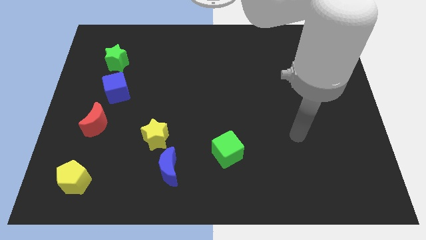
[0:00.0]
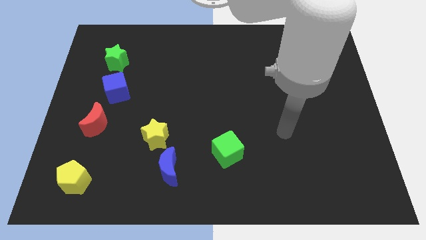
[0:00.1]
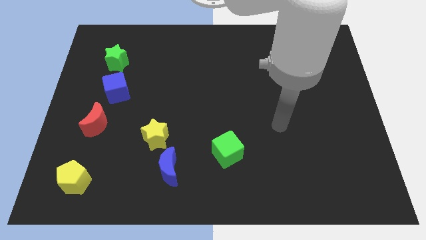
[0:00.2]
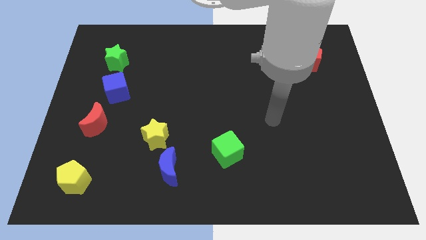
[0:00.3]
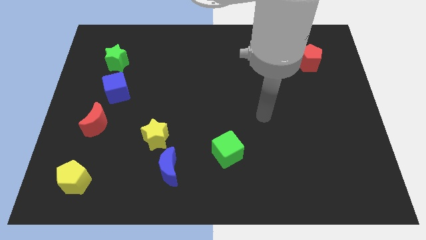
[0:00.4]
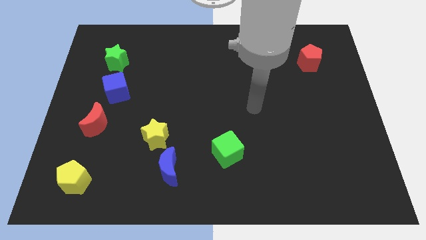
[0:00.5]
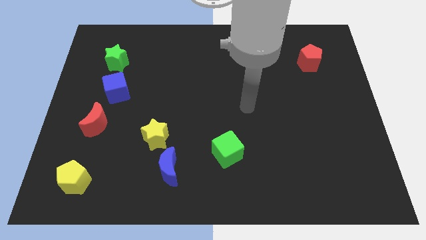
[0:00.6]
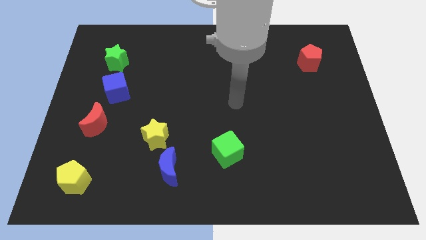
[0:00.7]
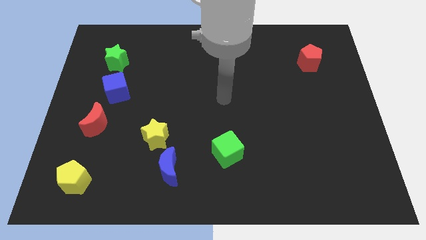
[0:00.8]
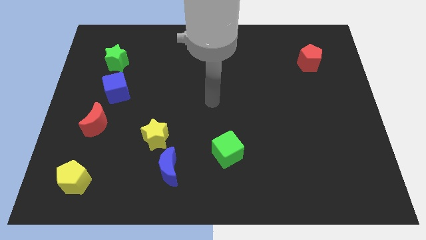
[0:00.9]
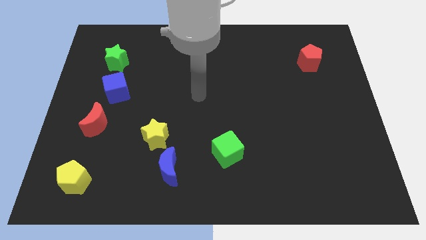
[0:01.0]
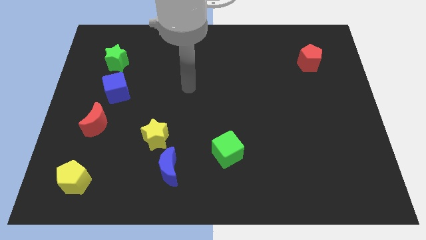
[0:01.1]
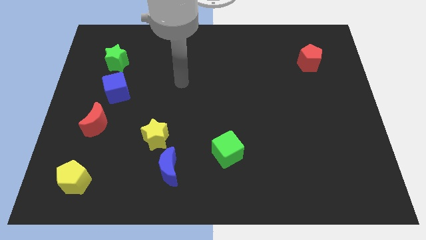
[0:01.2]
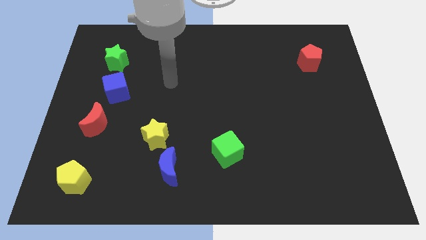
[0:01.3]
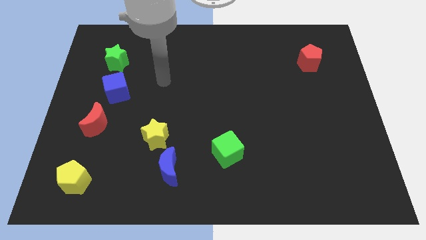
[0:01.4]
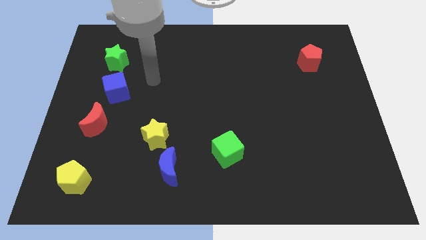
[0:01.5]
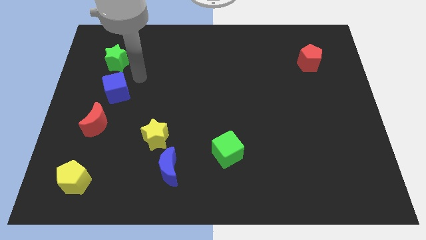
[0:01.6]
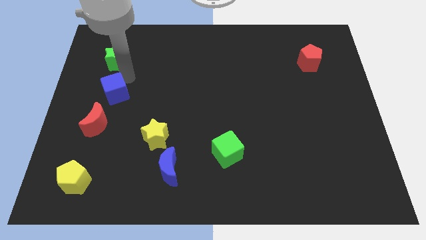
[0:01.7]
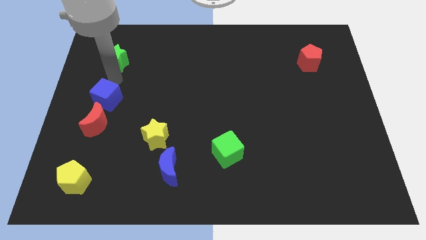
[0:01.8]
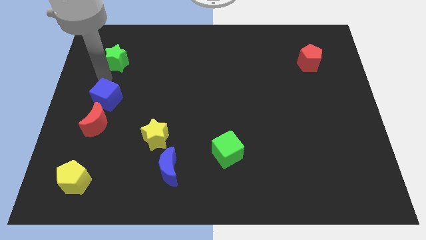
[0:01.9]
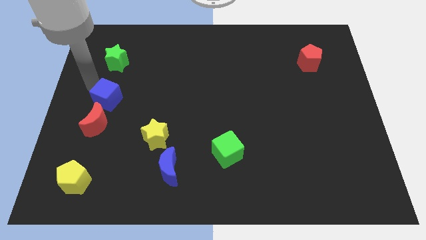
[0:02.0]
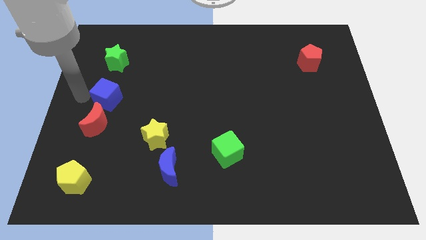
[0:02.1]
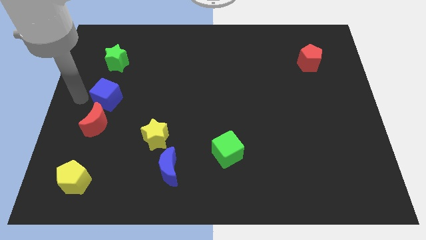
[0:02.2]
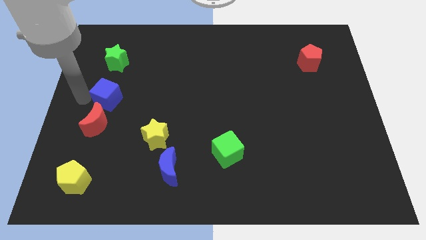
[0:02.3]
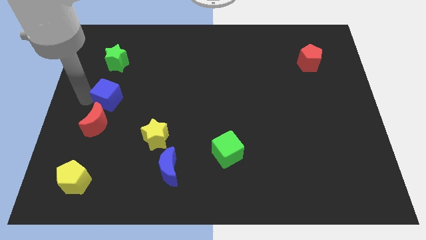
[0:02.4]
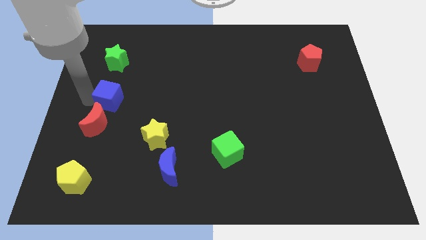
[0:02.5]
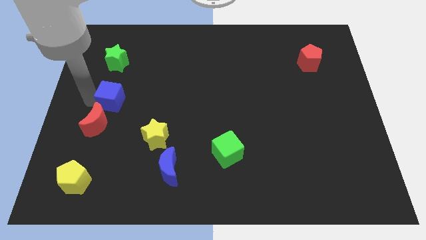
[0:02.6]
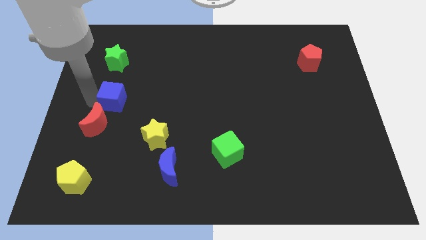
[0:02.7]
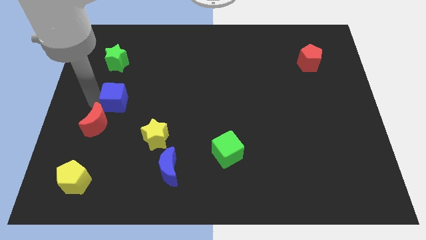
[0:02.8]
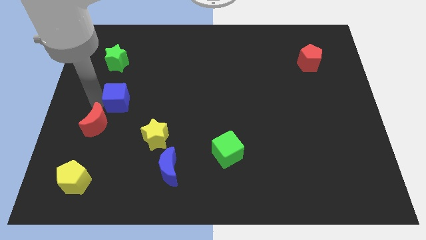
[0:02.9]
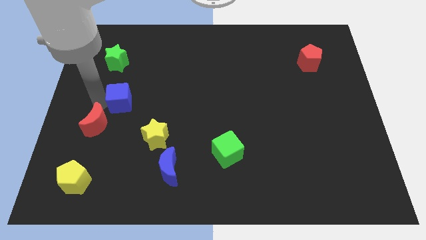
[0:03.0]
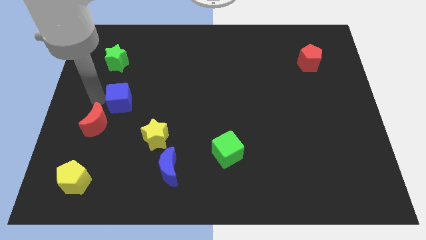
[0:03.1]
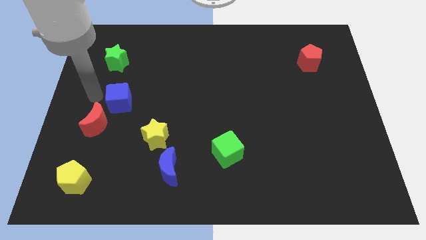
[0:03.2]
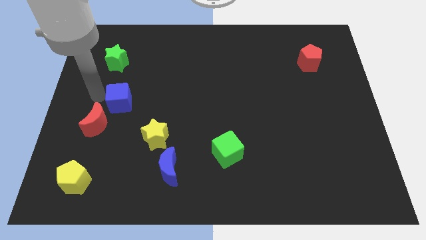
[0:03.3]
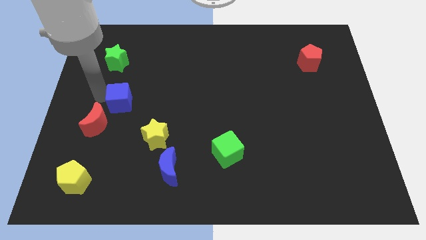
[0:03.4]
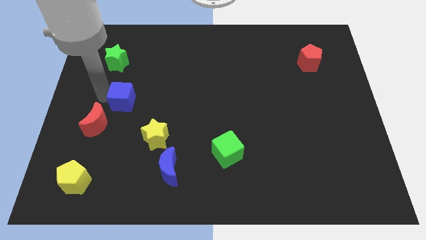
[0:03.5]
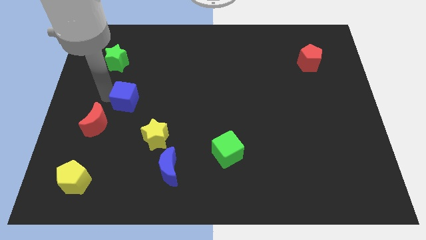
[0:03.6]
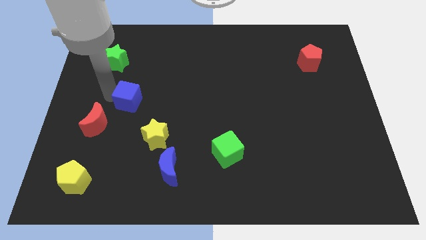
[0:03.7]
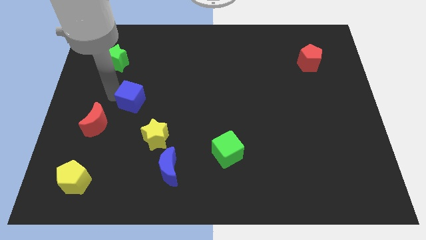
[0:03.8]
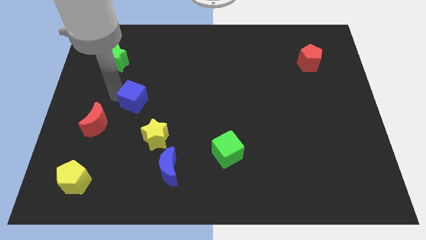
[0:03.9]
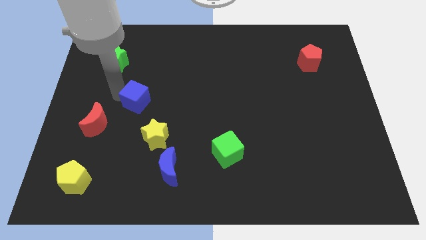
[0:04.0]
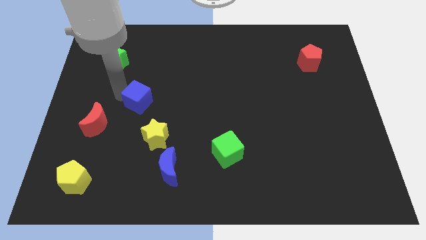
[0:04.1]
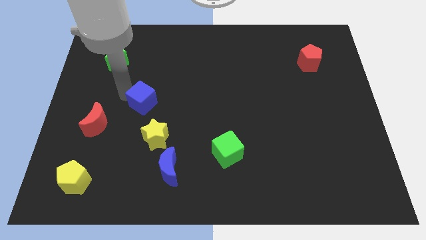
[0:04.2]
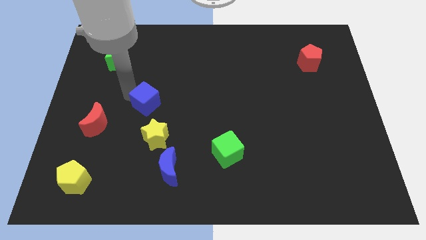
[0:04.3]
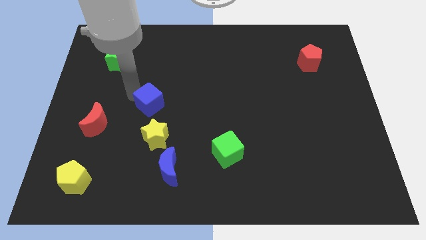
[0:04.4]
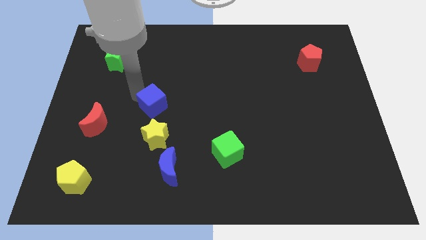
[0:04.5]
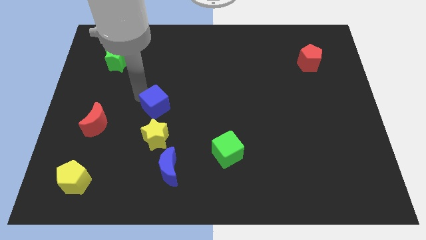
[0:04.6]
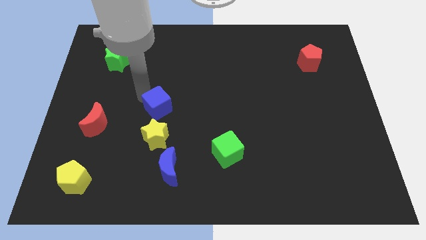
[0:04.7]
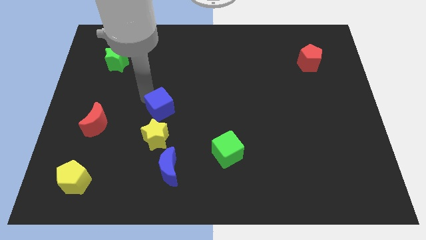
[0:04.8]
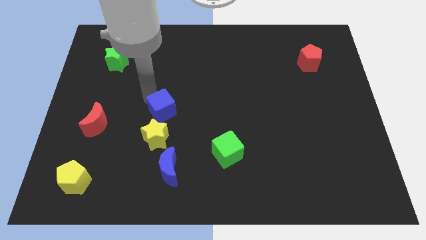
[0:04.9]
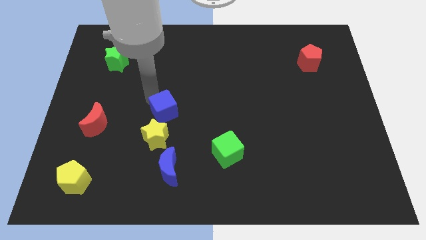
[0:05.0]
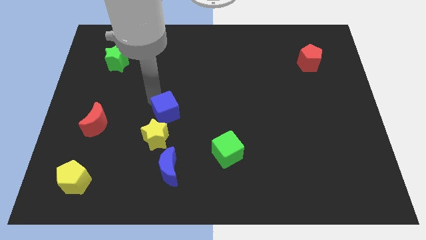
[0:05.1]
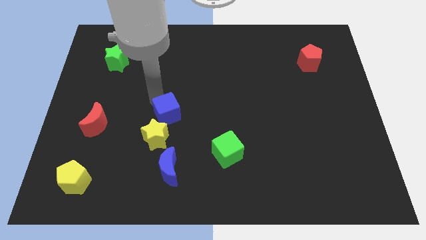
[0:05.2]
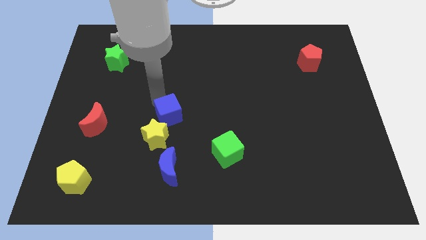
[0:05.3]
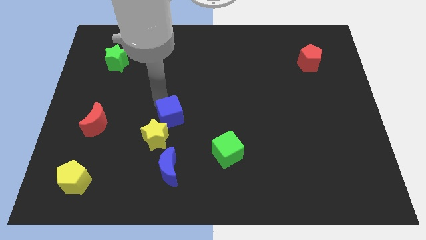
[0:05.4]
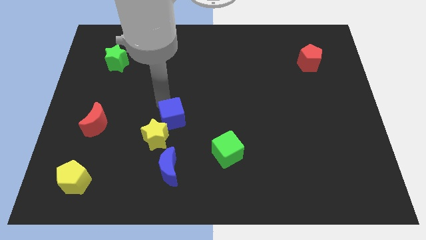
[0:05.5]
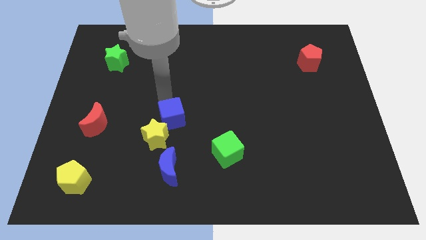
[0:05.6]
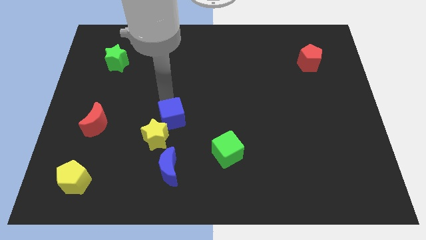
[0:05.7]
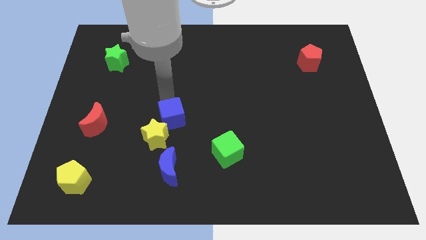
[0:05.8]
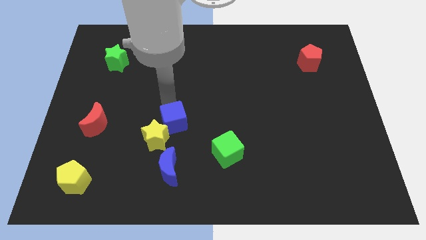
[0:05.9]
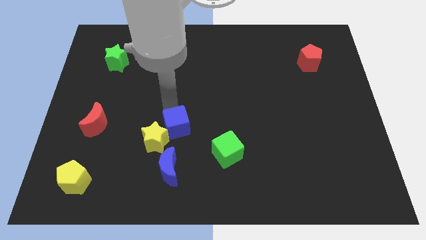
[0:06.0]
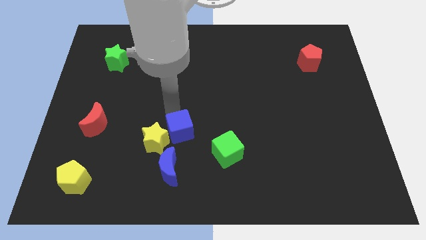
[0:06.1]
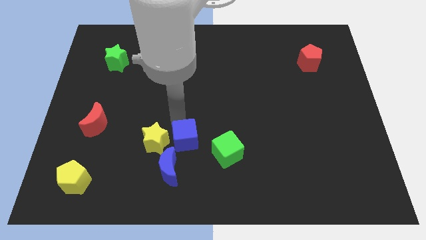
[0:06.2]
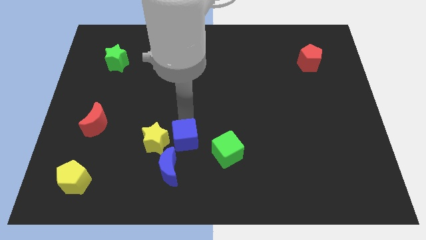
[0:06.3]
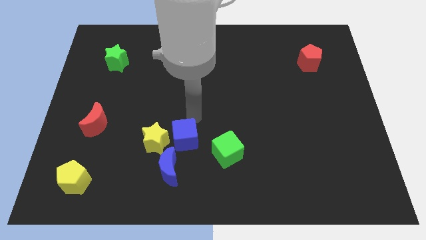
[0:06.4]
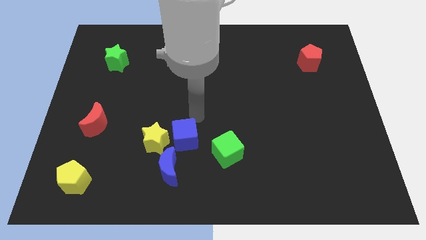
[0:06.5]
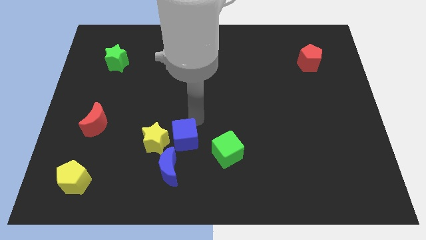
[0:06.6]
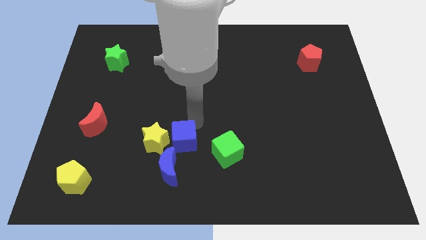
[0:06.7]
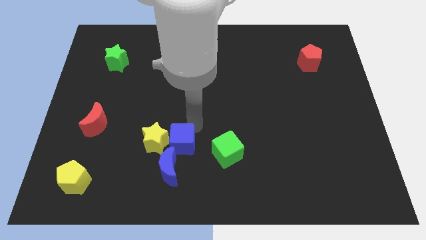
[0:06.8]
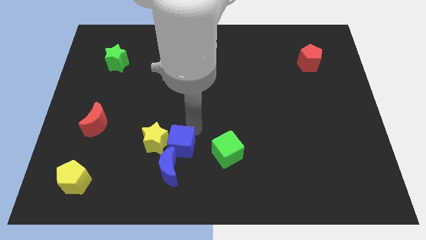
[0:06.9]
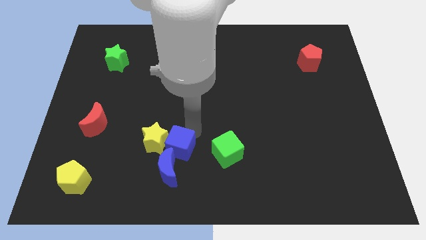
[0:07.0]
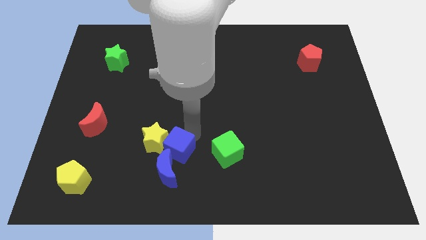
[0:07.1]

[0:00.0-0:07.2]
push the blue cube to the blue moon
